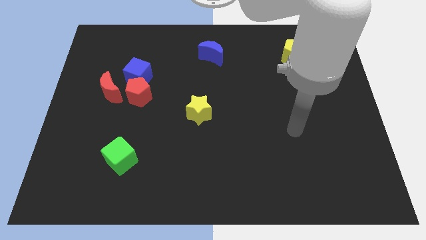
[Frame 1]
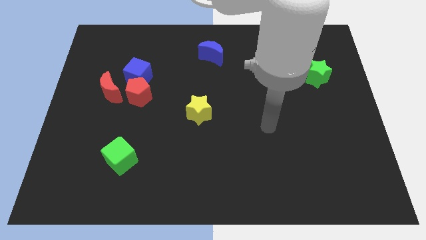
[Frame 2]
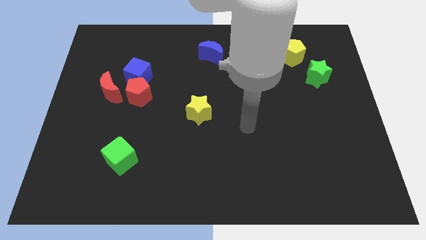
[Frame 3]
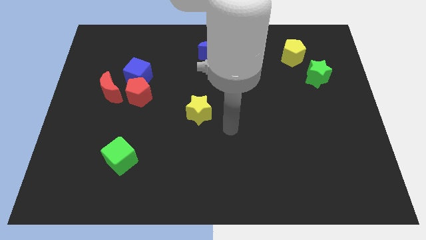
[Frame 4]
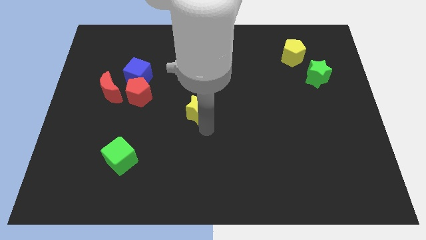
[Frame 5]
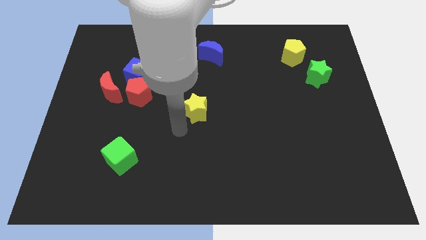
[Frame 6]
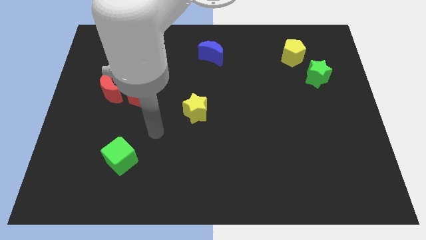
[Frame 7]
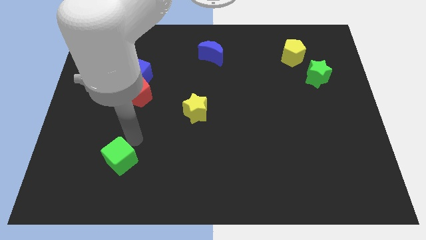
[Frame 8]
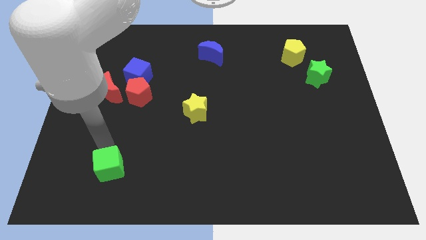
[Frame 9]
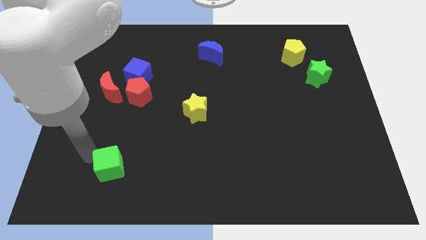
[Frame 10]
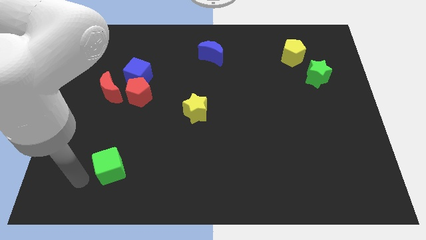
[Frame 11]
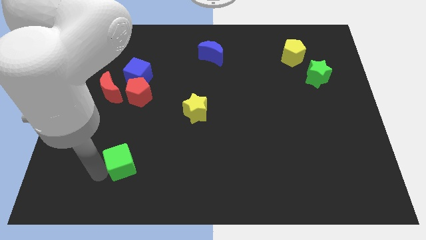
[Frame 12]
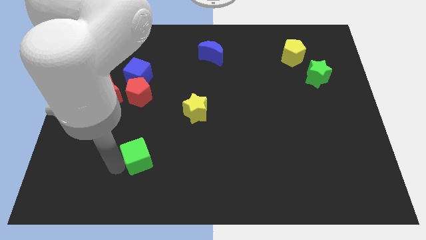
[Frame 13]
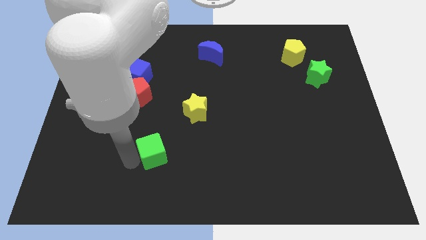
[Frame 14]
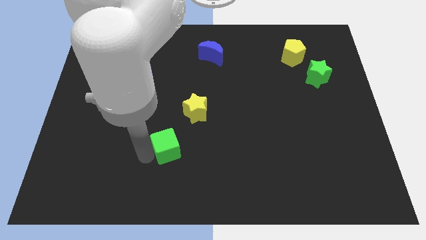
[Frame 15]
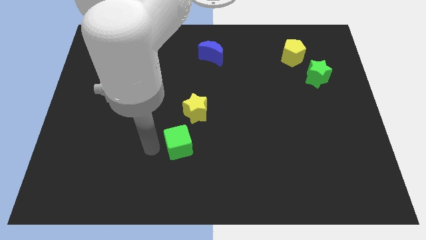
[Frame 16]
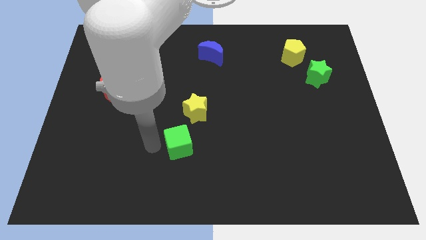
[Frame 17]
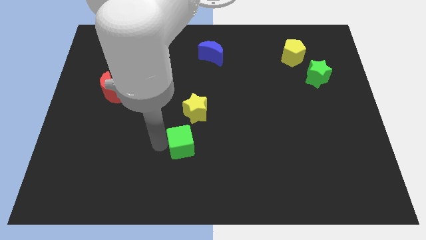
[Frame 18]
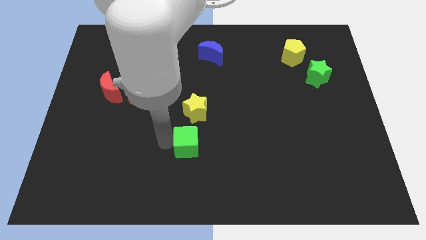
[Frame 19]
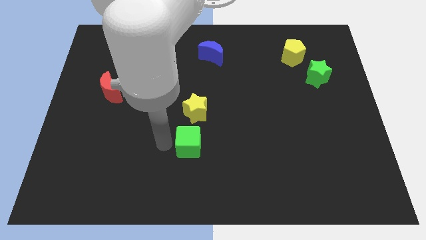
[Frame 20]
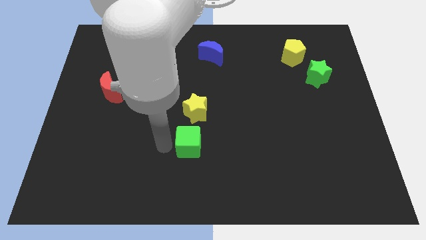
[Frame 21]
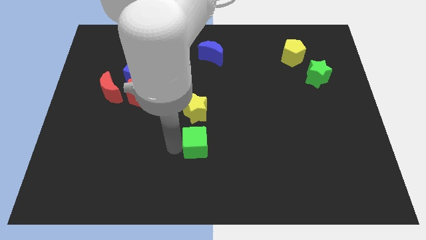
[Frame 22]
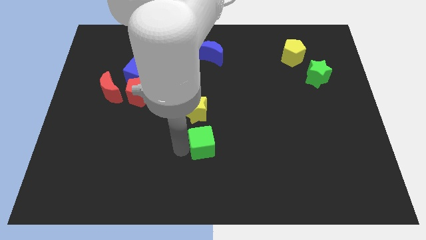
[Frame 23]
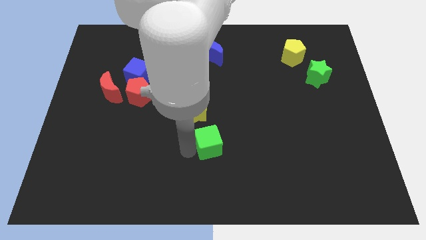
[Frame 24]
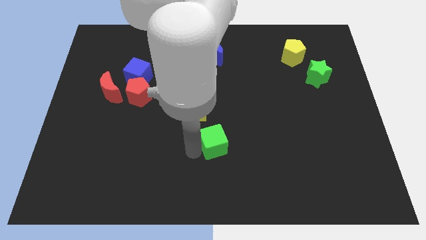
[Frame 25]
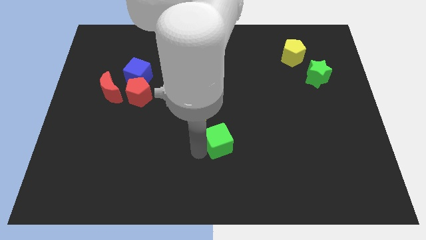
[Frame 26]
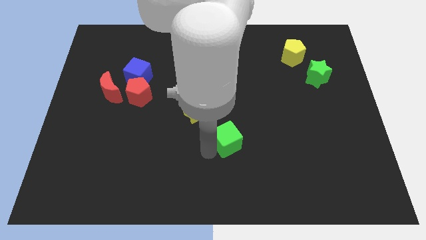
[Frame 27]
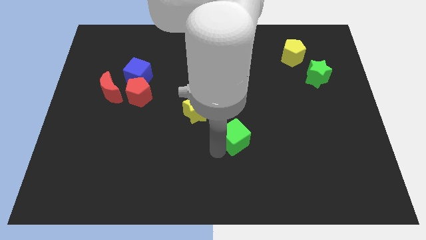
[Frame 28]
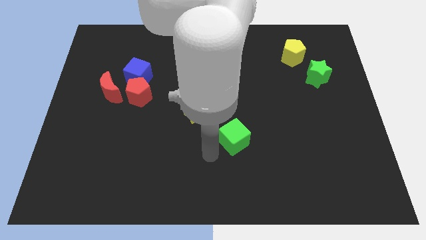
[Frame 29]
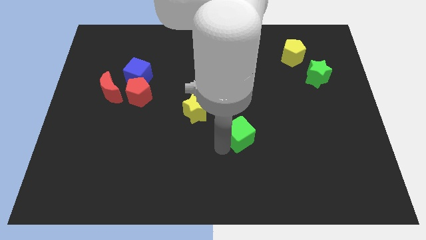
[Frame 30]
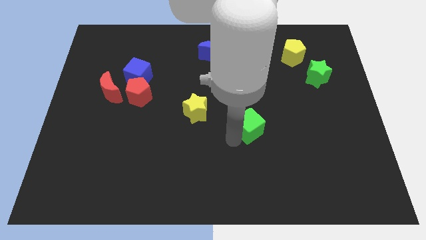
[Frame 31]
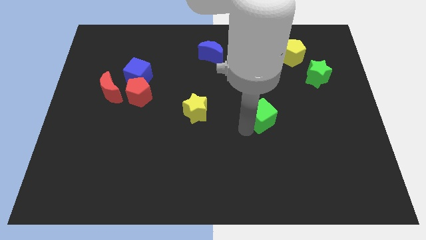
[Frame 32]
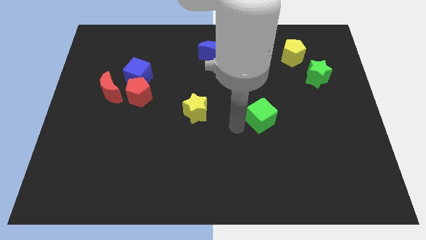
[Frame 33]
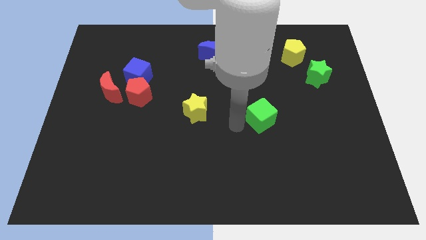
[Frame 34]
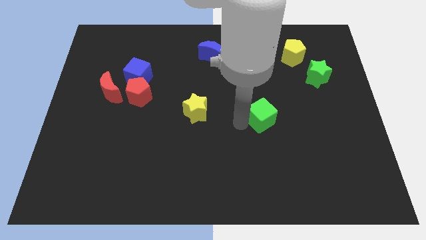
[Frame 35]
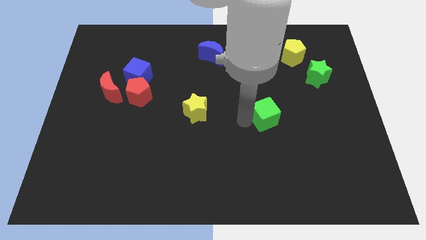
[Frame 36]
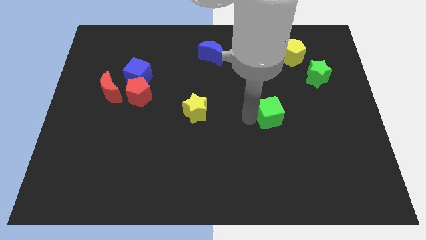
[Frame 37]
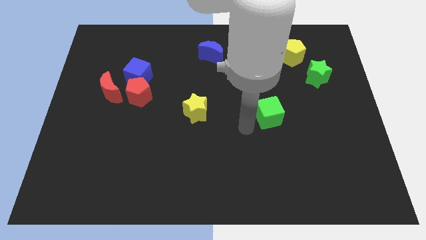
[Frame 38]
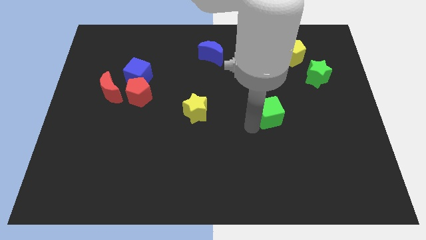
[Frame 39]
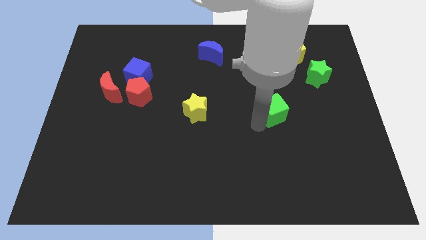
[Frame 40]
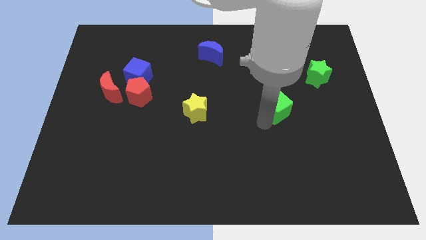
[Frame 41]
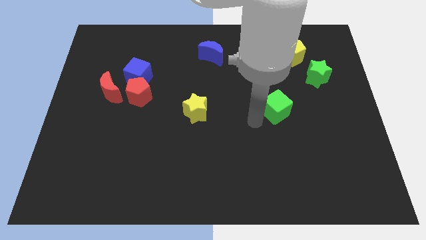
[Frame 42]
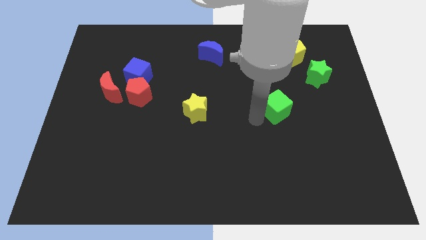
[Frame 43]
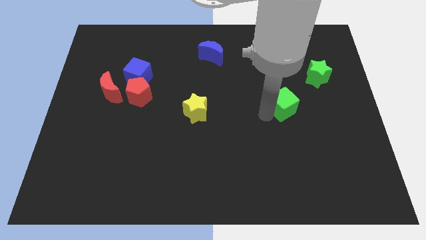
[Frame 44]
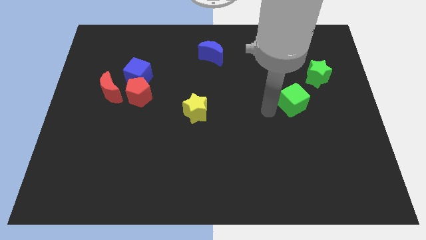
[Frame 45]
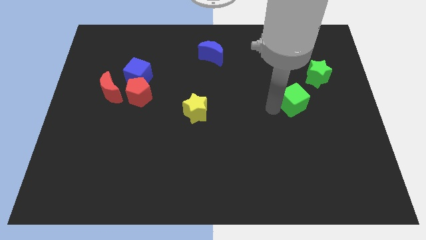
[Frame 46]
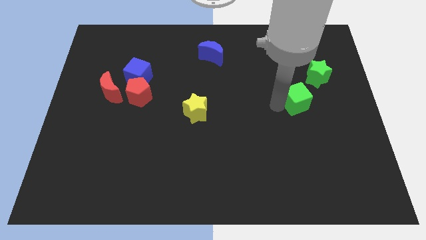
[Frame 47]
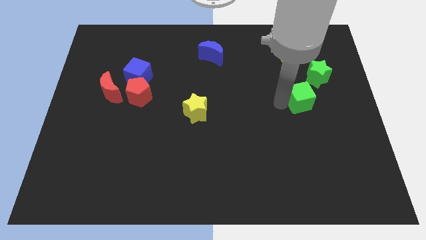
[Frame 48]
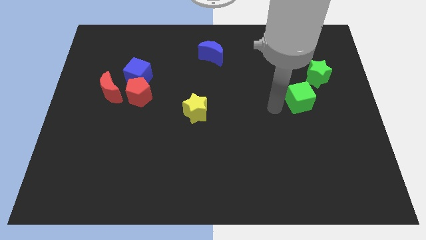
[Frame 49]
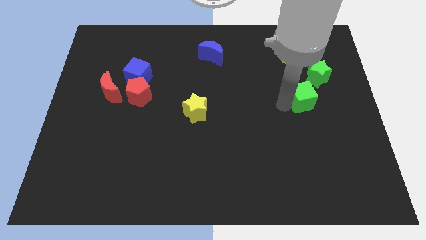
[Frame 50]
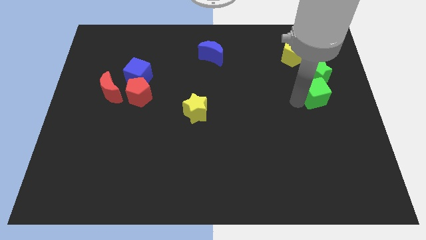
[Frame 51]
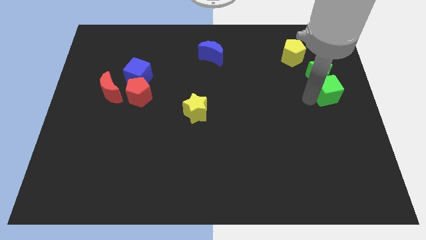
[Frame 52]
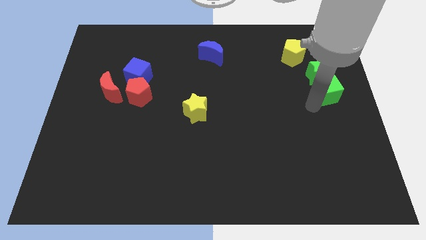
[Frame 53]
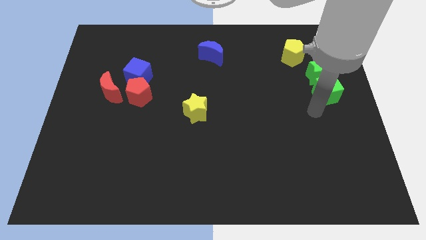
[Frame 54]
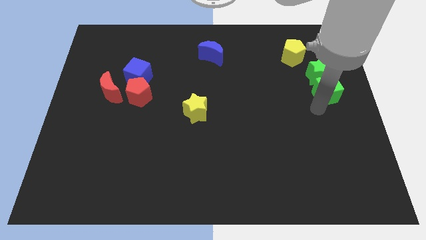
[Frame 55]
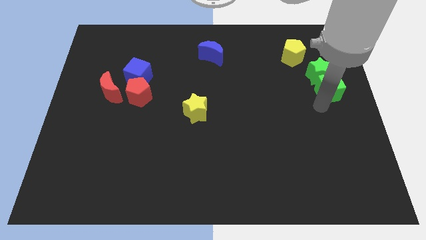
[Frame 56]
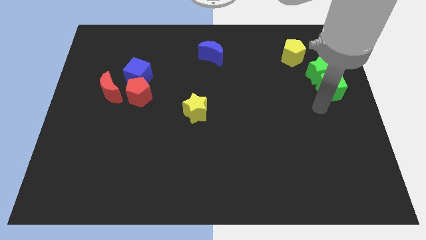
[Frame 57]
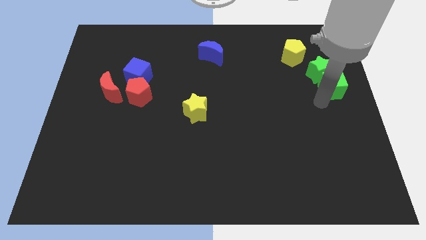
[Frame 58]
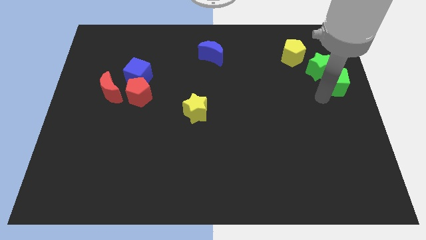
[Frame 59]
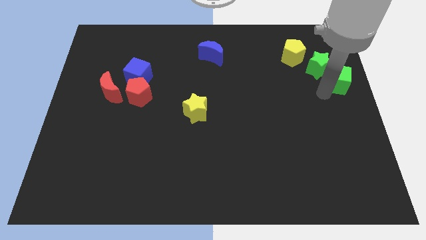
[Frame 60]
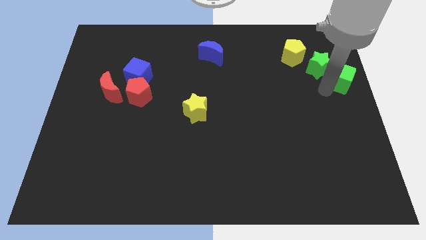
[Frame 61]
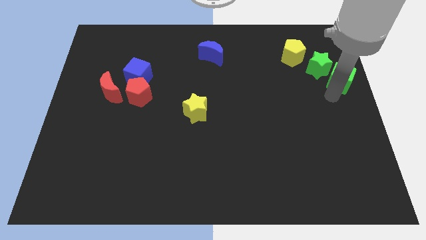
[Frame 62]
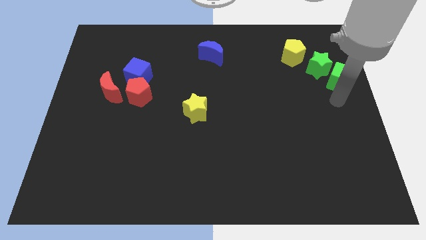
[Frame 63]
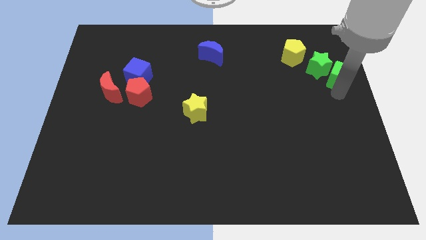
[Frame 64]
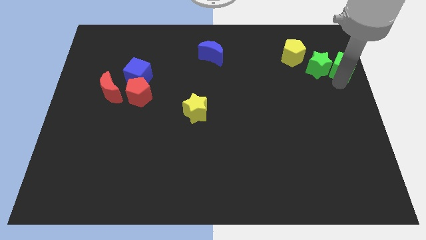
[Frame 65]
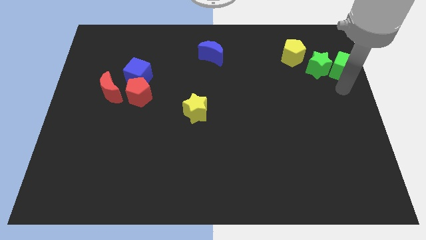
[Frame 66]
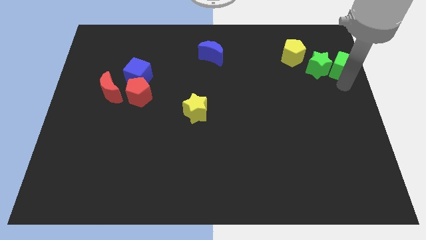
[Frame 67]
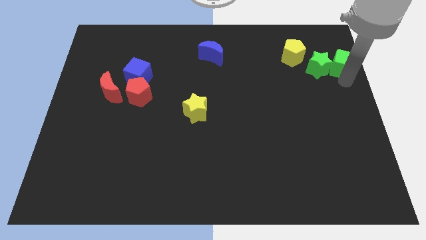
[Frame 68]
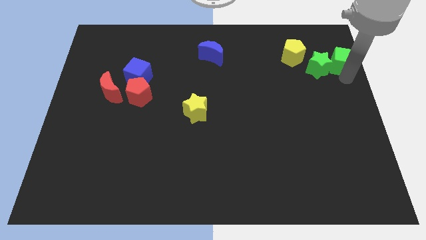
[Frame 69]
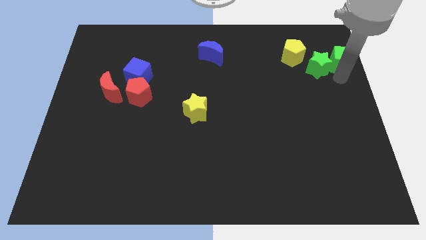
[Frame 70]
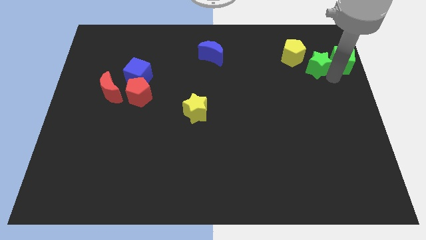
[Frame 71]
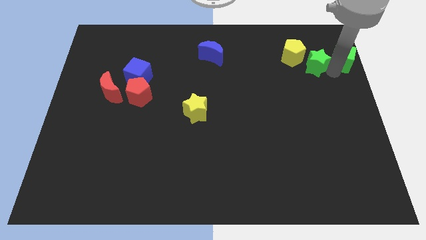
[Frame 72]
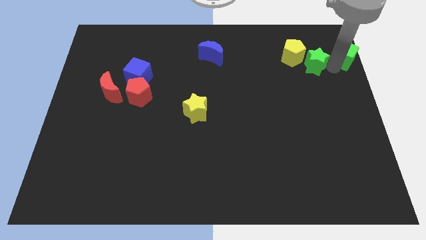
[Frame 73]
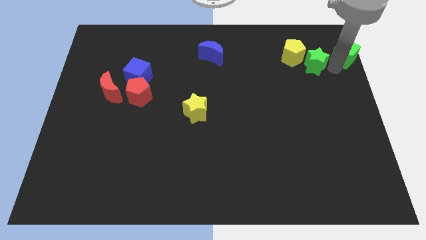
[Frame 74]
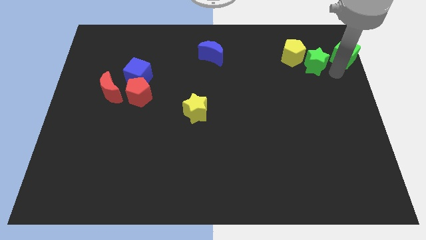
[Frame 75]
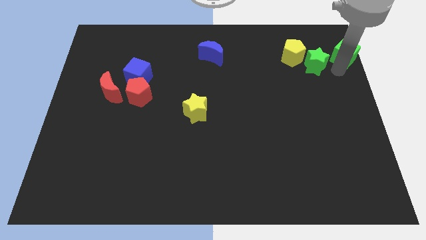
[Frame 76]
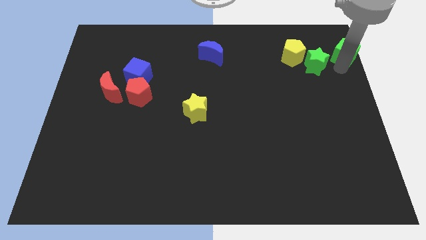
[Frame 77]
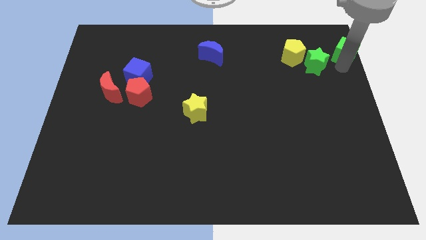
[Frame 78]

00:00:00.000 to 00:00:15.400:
move the green cube to the upper right corner
